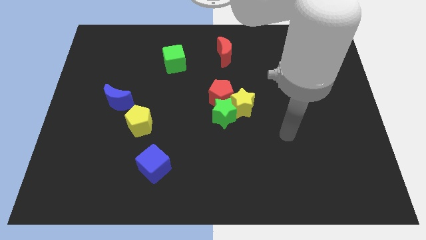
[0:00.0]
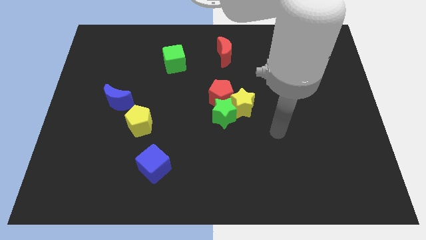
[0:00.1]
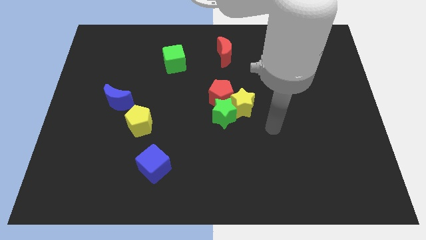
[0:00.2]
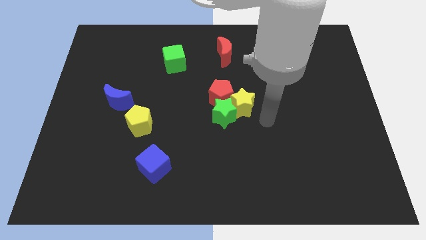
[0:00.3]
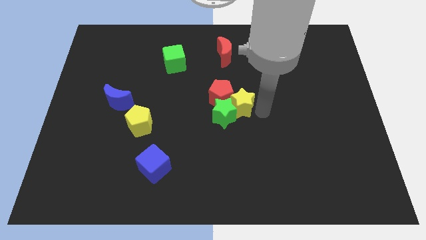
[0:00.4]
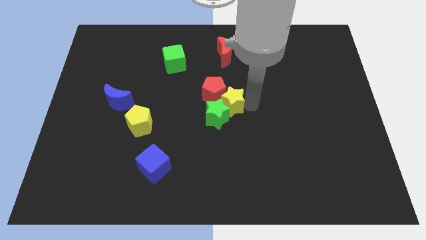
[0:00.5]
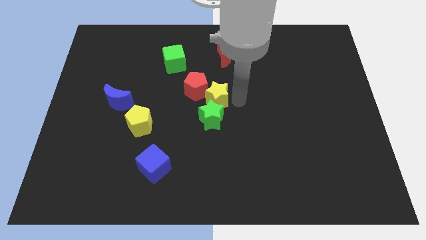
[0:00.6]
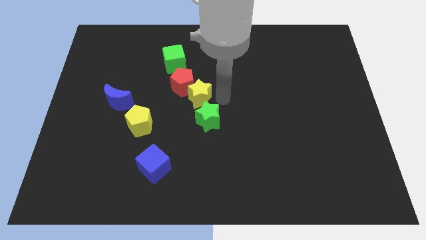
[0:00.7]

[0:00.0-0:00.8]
move the green star away from the yellow star and red pentagon

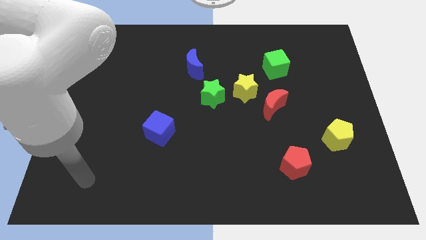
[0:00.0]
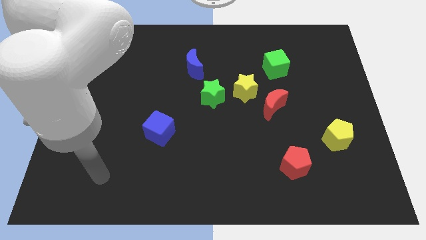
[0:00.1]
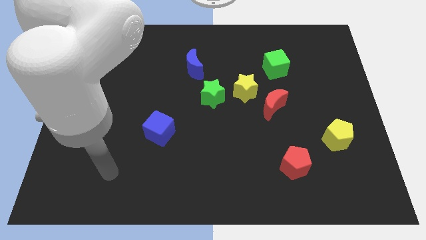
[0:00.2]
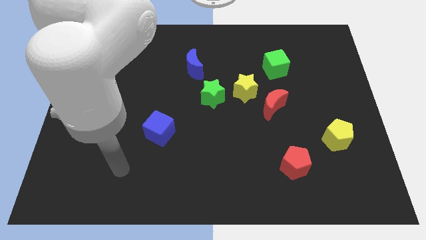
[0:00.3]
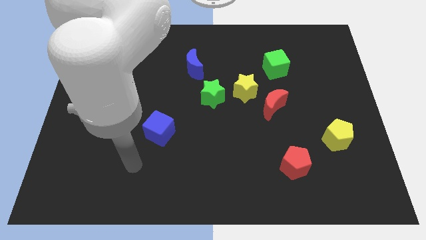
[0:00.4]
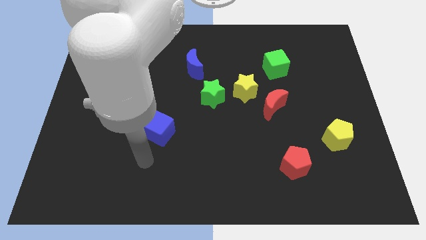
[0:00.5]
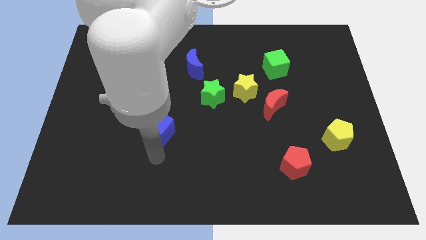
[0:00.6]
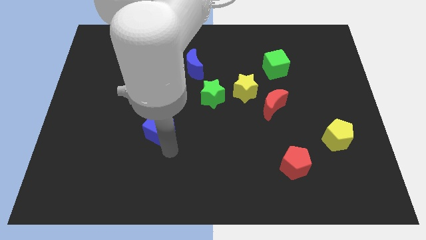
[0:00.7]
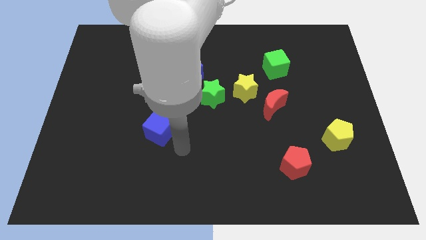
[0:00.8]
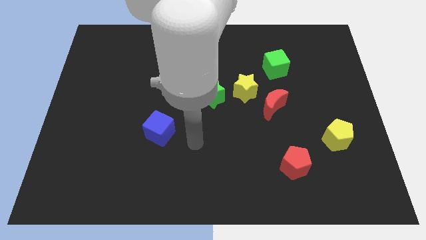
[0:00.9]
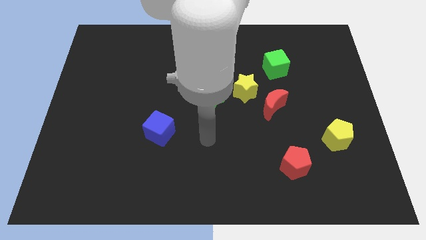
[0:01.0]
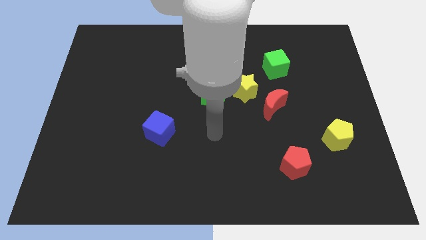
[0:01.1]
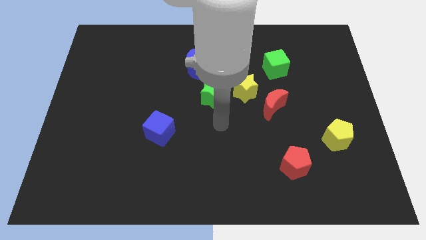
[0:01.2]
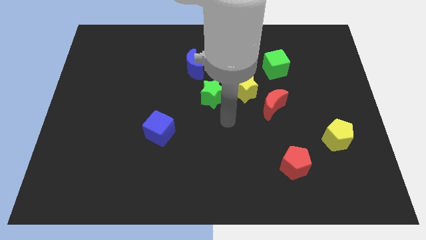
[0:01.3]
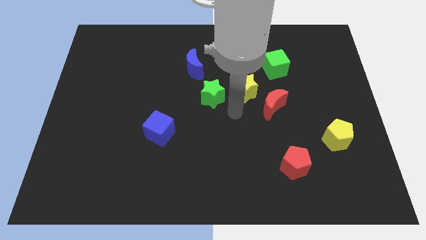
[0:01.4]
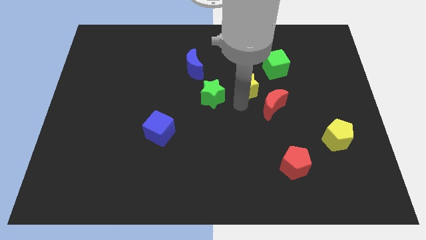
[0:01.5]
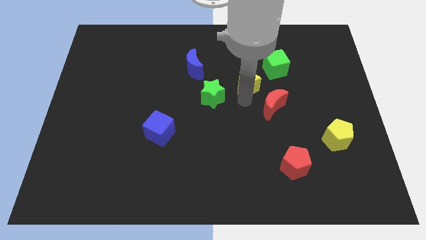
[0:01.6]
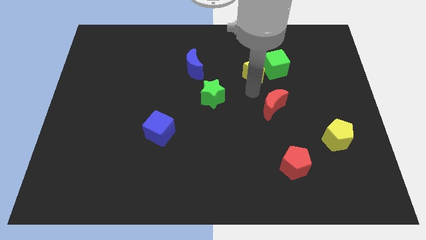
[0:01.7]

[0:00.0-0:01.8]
move the red moon away from the yellow star

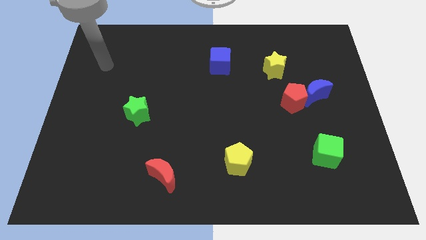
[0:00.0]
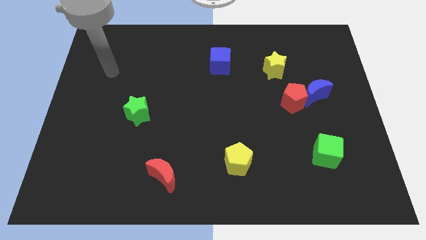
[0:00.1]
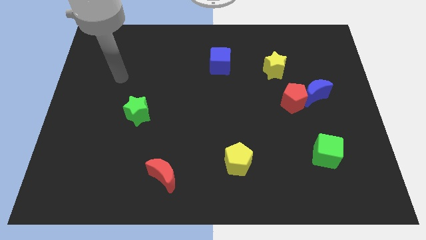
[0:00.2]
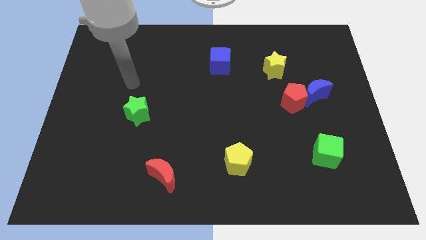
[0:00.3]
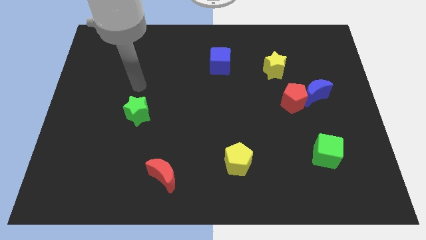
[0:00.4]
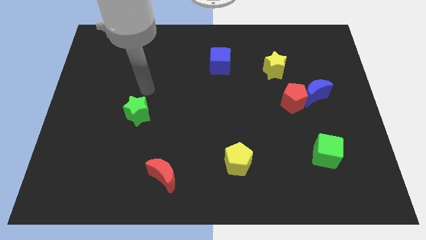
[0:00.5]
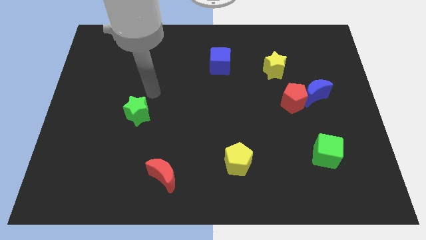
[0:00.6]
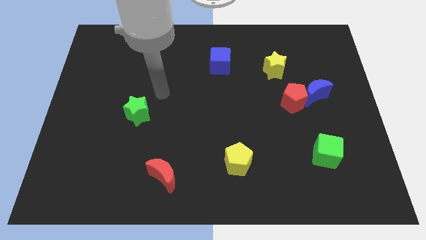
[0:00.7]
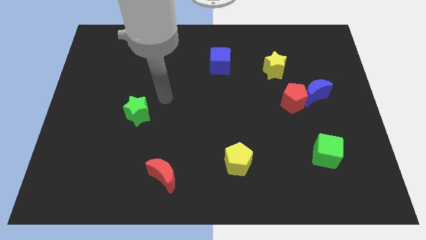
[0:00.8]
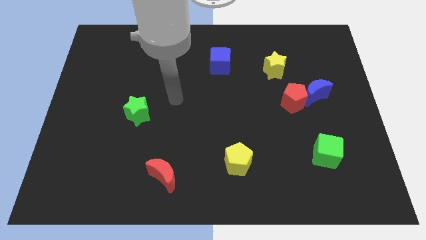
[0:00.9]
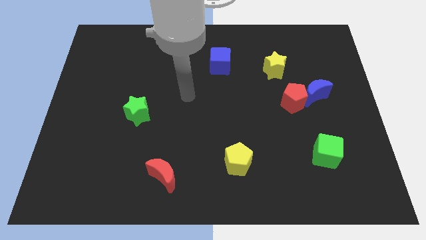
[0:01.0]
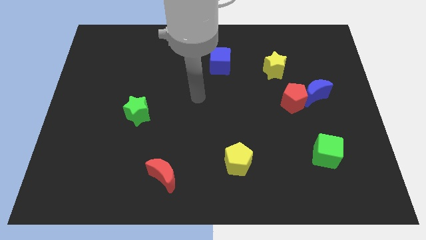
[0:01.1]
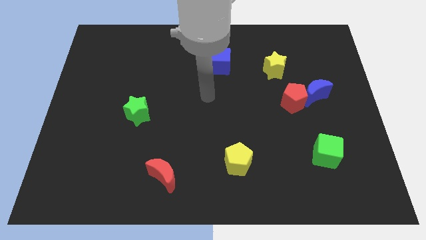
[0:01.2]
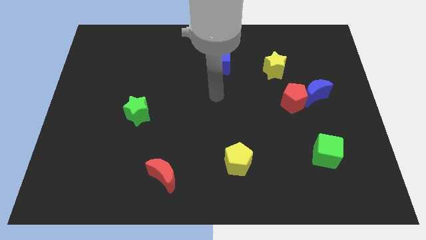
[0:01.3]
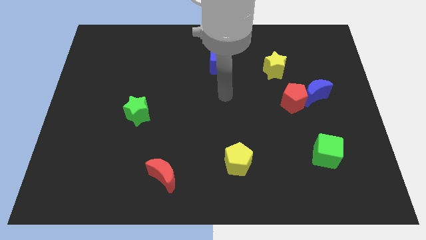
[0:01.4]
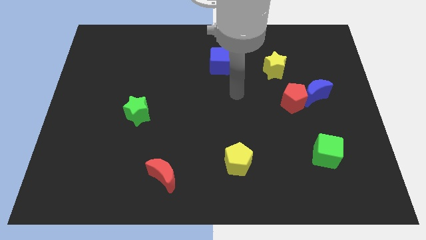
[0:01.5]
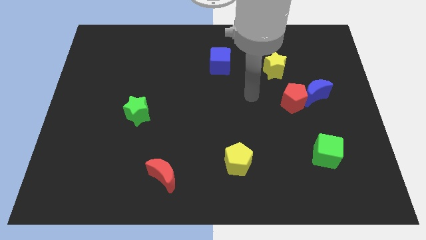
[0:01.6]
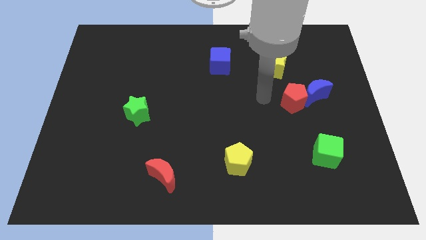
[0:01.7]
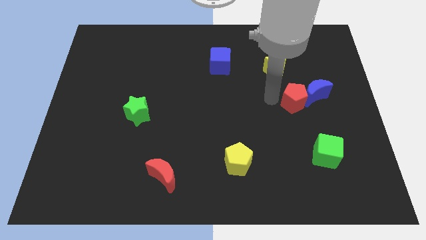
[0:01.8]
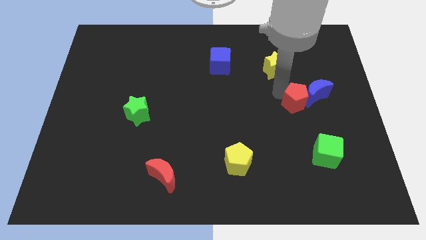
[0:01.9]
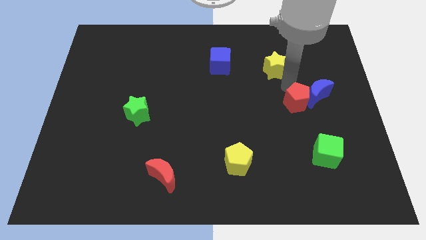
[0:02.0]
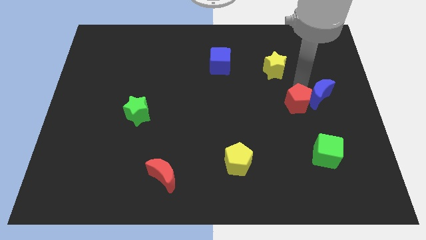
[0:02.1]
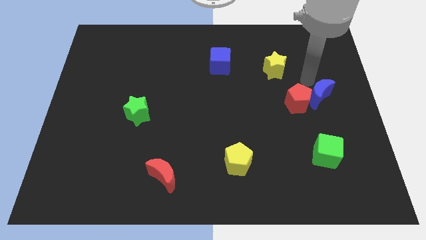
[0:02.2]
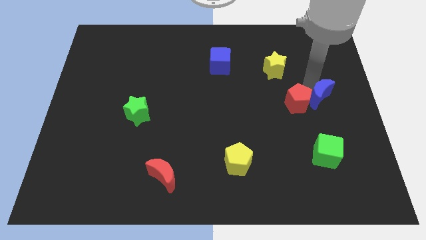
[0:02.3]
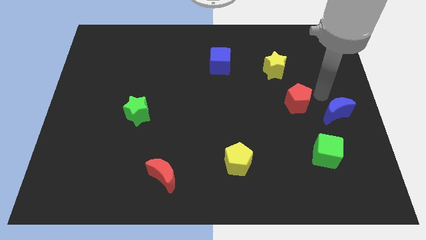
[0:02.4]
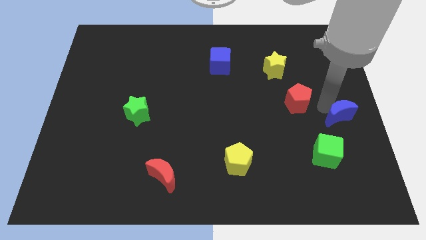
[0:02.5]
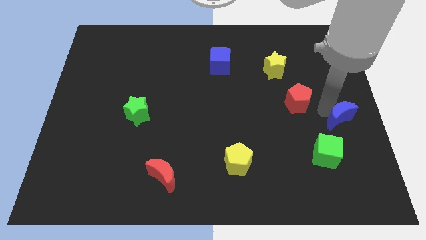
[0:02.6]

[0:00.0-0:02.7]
pull the red pentagon apart from the blue moon

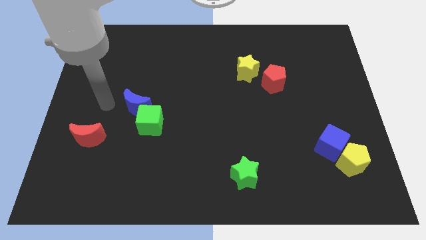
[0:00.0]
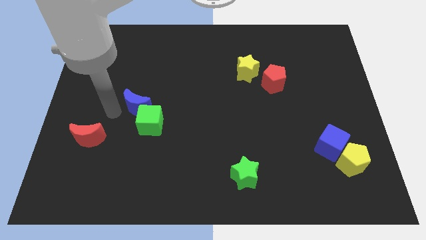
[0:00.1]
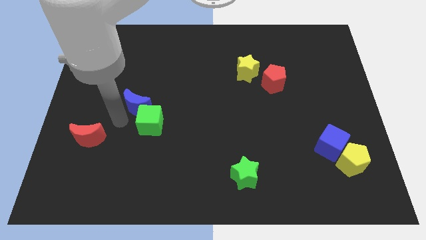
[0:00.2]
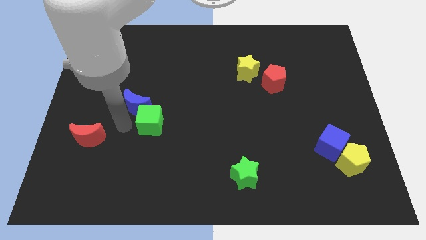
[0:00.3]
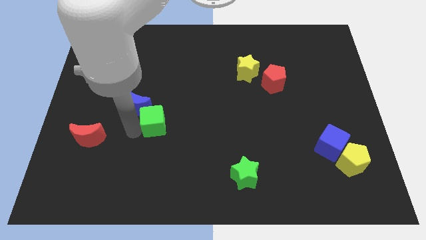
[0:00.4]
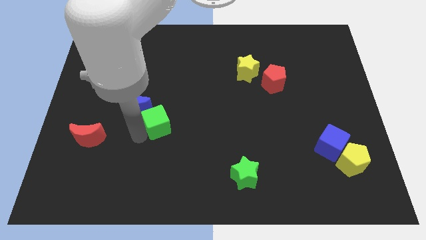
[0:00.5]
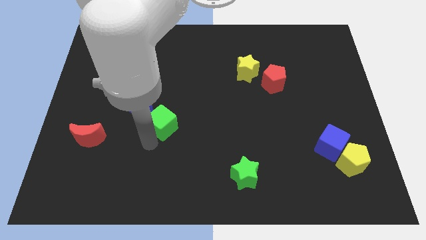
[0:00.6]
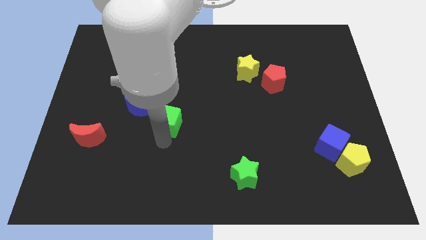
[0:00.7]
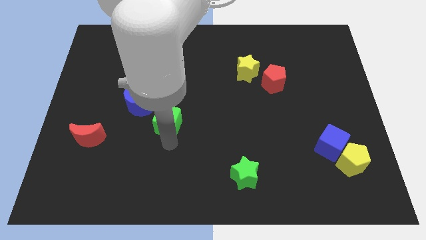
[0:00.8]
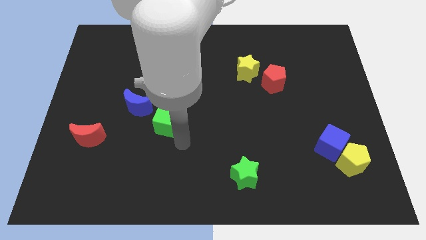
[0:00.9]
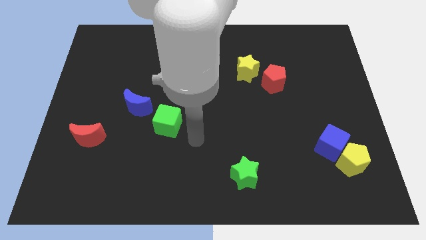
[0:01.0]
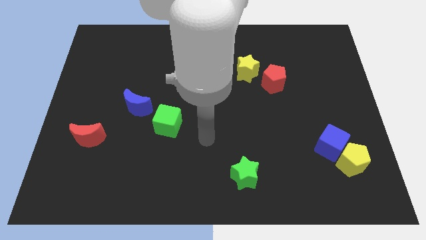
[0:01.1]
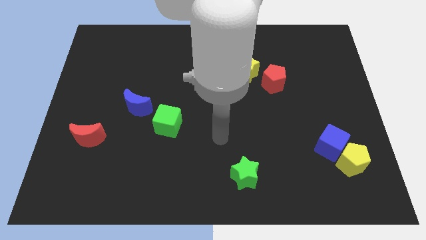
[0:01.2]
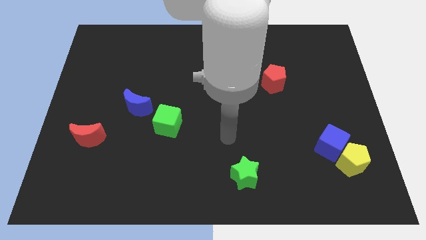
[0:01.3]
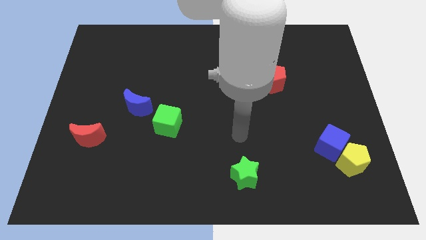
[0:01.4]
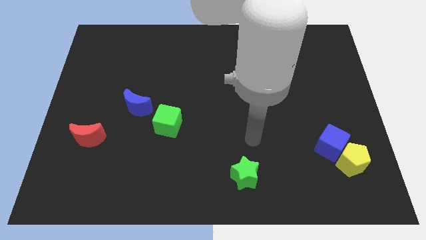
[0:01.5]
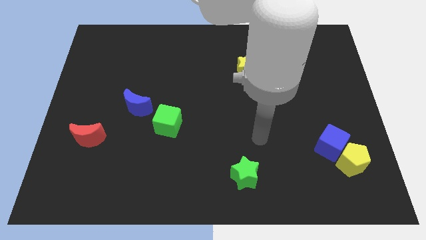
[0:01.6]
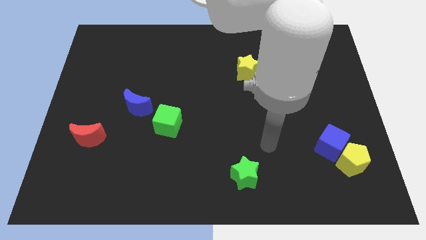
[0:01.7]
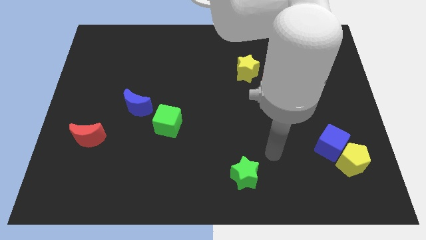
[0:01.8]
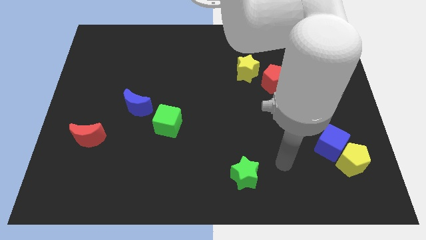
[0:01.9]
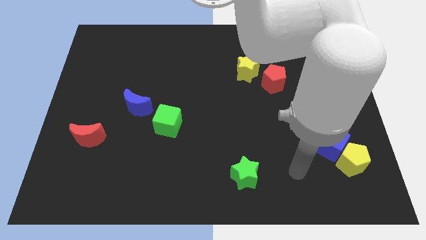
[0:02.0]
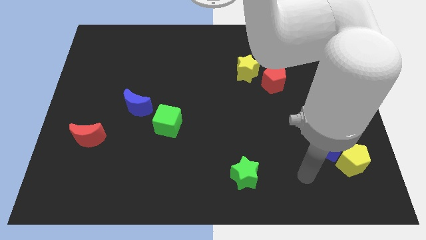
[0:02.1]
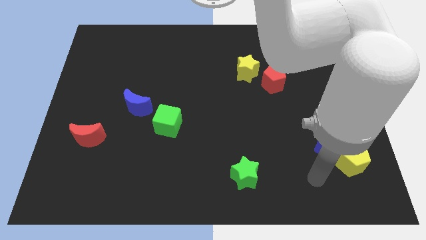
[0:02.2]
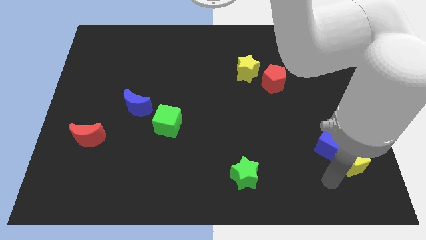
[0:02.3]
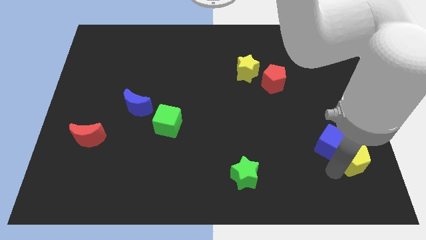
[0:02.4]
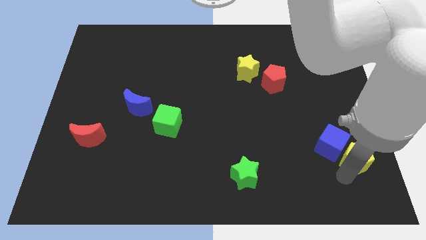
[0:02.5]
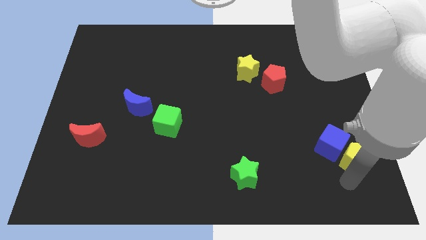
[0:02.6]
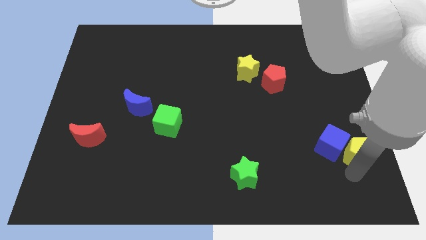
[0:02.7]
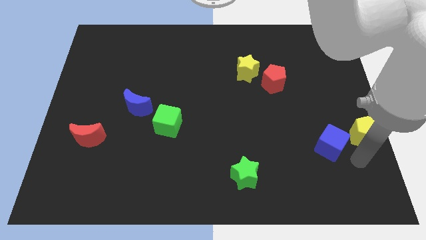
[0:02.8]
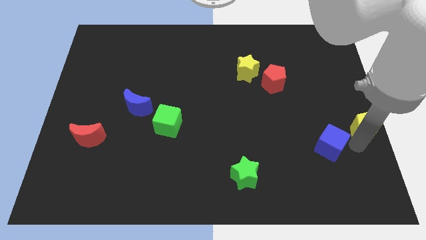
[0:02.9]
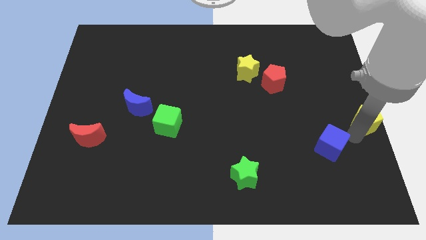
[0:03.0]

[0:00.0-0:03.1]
separate the blue cube from the yellow pentagon

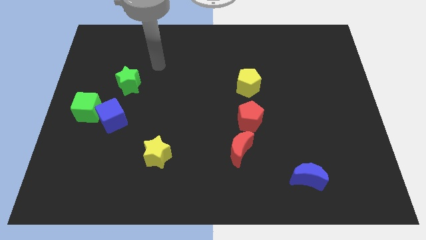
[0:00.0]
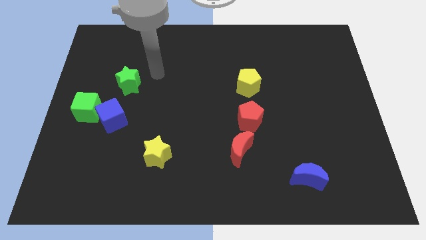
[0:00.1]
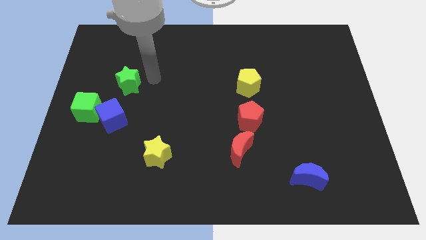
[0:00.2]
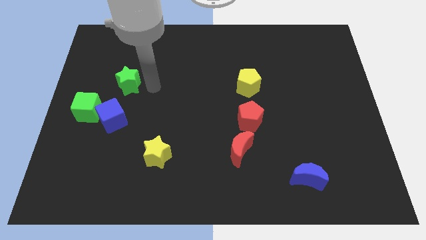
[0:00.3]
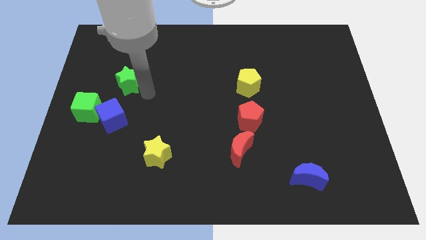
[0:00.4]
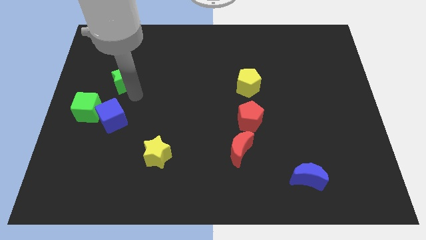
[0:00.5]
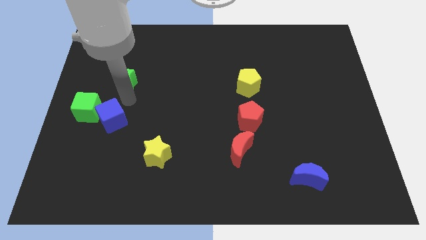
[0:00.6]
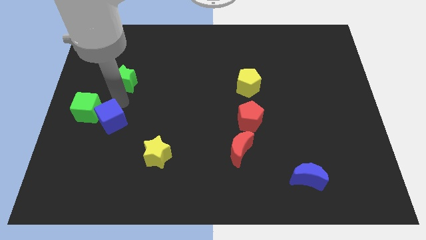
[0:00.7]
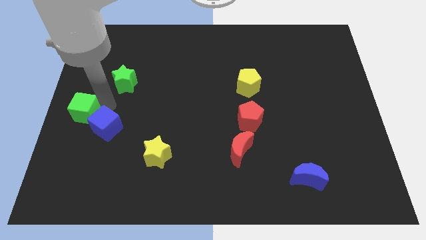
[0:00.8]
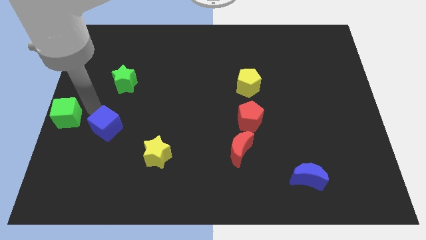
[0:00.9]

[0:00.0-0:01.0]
pull the blue cube apart from the green cube
